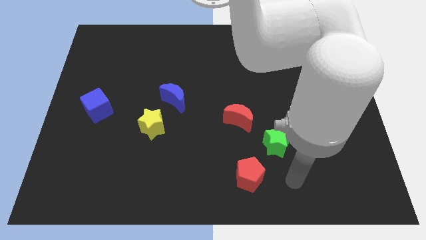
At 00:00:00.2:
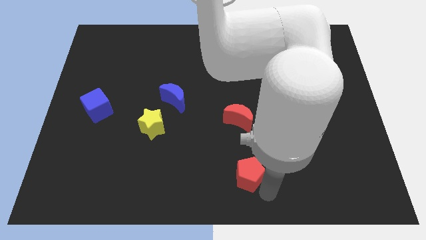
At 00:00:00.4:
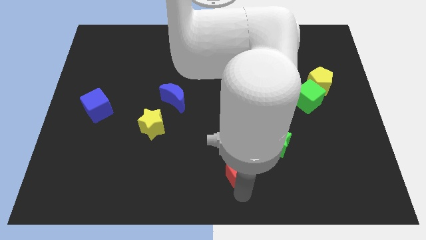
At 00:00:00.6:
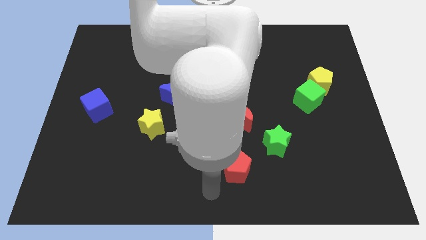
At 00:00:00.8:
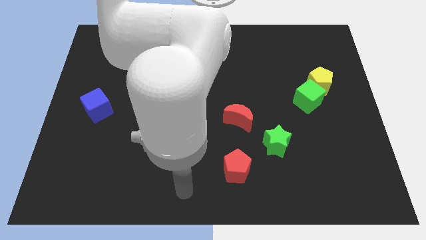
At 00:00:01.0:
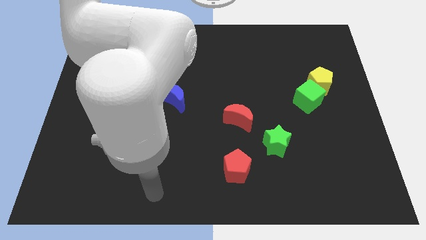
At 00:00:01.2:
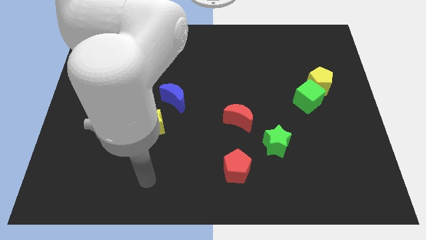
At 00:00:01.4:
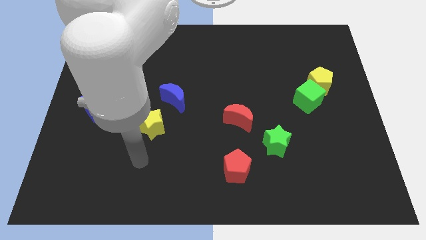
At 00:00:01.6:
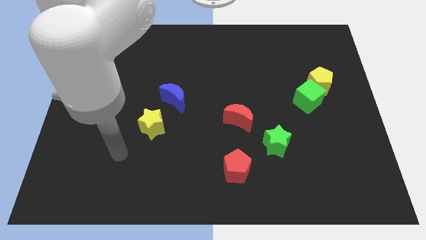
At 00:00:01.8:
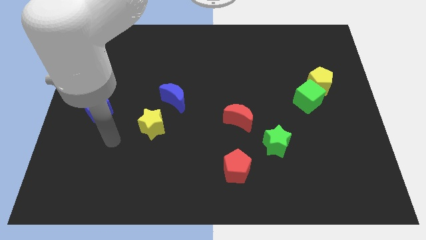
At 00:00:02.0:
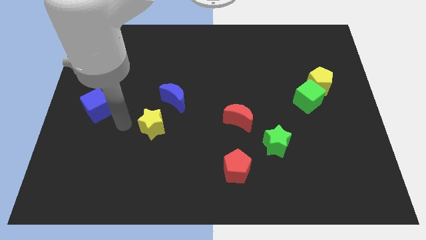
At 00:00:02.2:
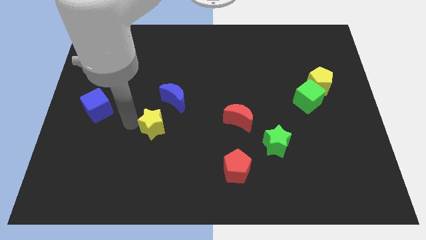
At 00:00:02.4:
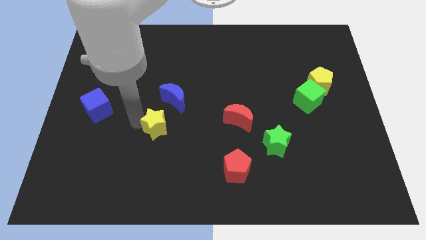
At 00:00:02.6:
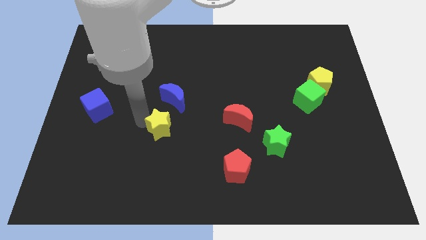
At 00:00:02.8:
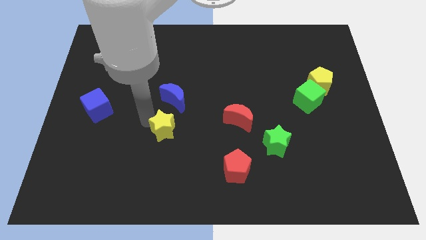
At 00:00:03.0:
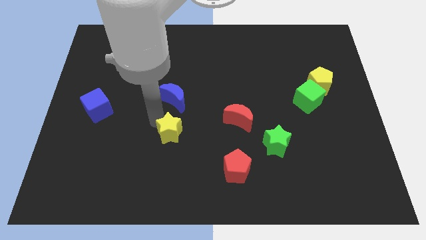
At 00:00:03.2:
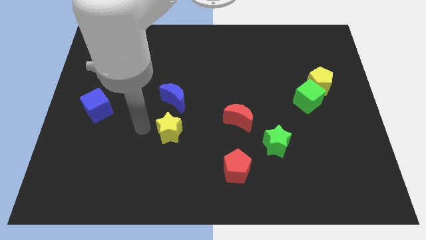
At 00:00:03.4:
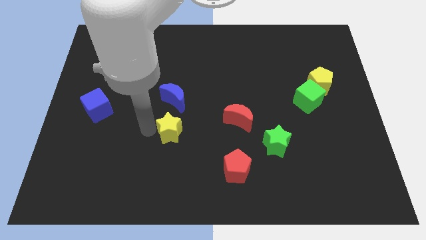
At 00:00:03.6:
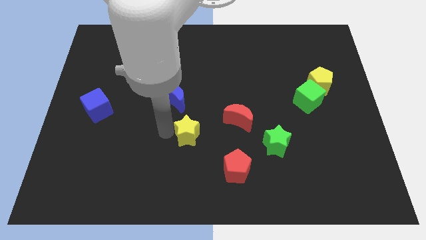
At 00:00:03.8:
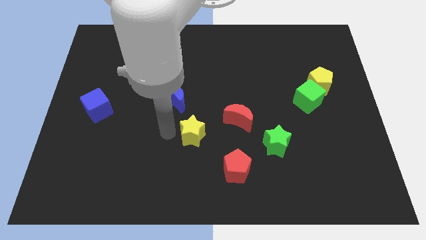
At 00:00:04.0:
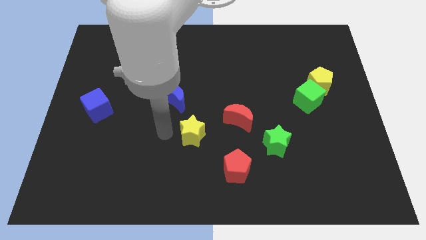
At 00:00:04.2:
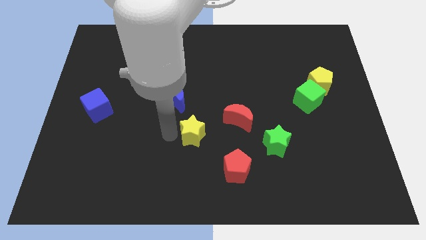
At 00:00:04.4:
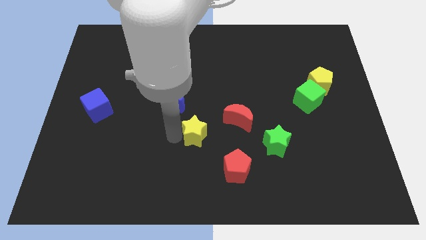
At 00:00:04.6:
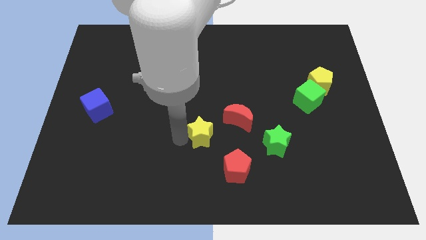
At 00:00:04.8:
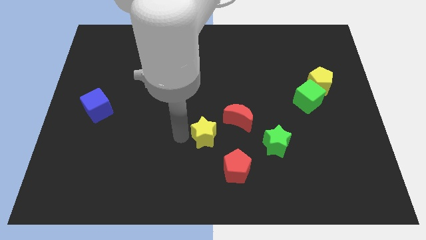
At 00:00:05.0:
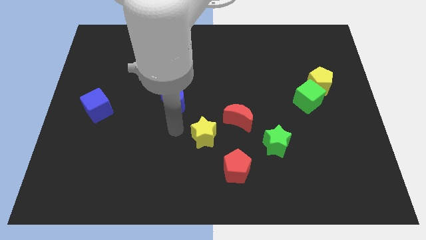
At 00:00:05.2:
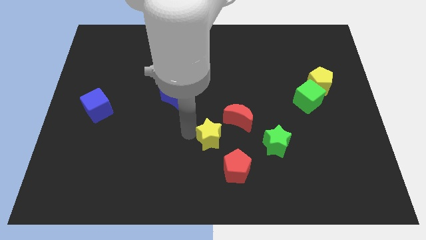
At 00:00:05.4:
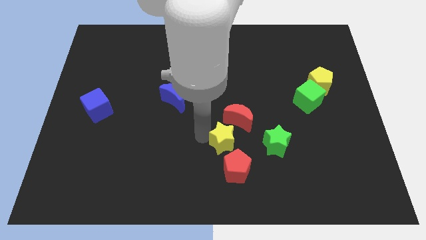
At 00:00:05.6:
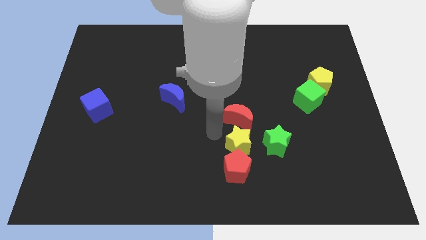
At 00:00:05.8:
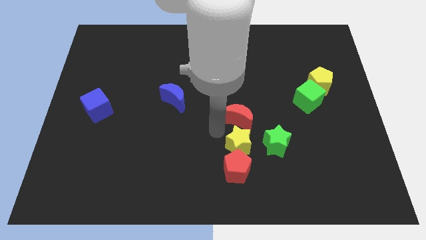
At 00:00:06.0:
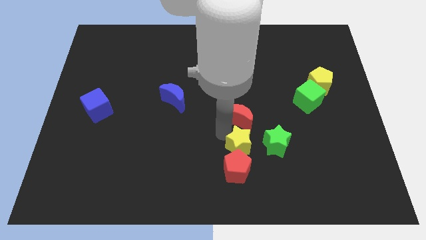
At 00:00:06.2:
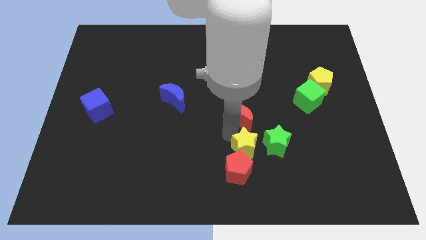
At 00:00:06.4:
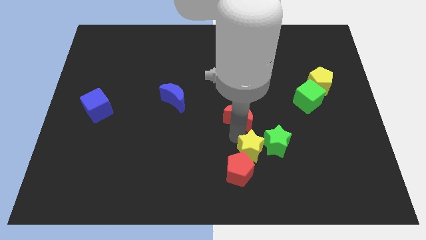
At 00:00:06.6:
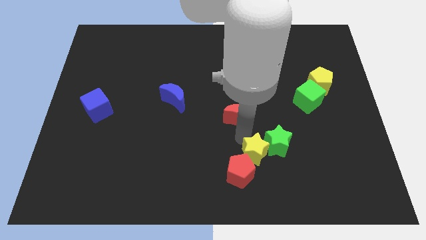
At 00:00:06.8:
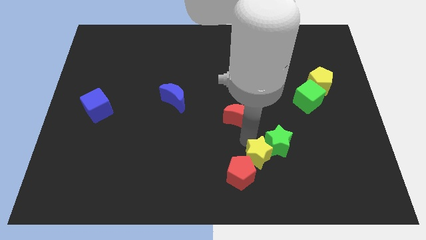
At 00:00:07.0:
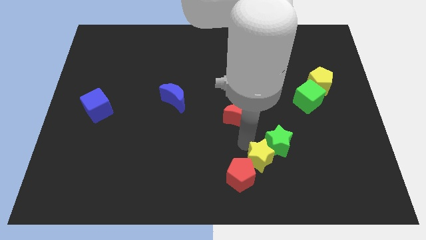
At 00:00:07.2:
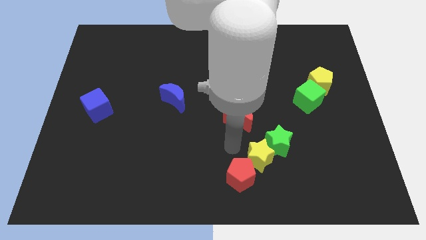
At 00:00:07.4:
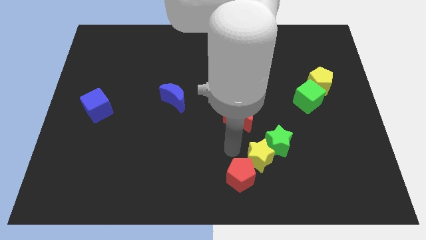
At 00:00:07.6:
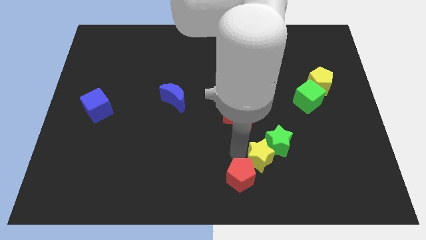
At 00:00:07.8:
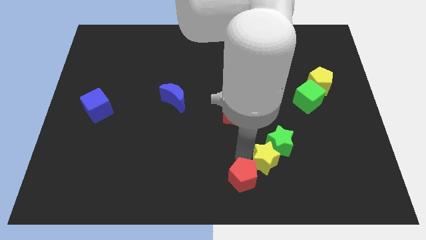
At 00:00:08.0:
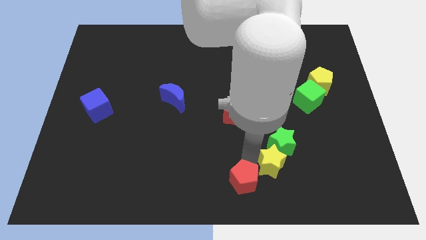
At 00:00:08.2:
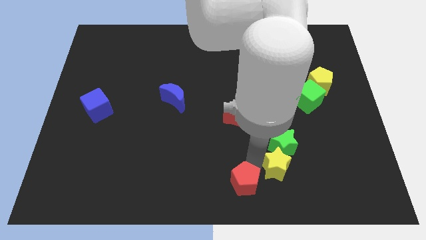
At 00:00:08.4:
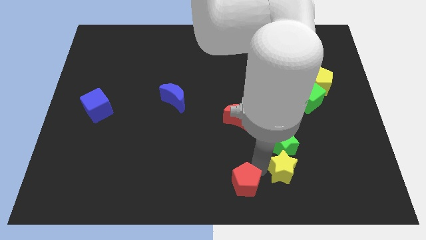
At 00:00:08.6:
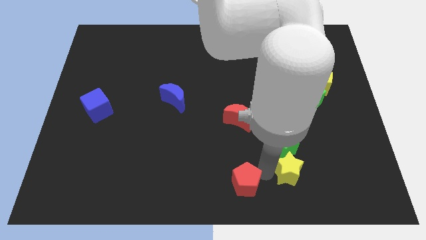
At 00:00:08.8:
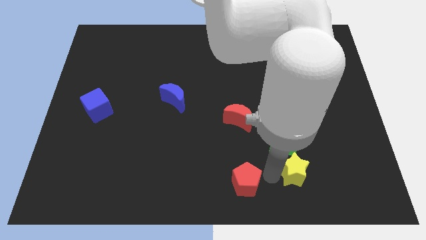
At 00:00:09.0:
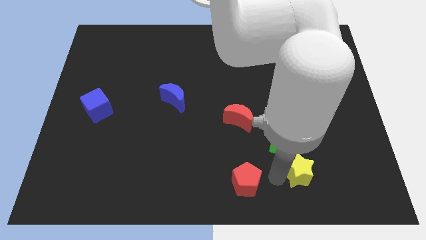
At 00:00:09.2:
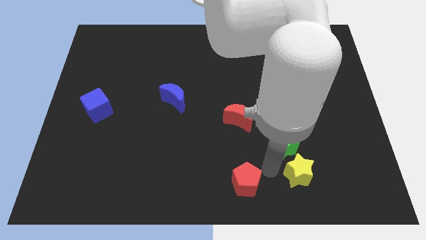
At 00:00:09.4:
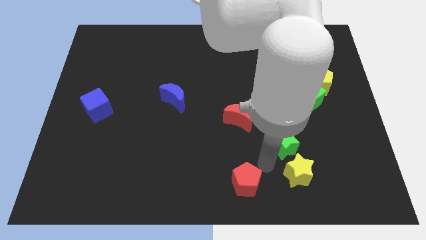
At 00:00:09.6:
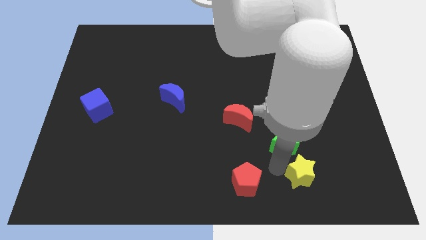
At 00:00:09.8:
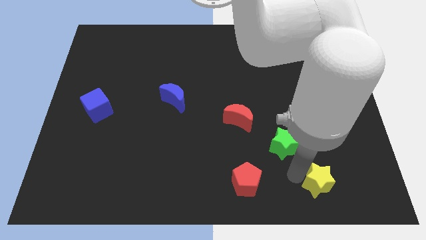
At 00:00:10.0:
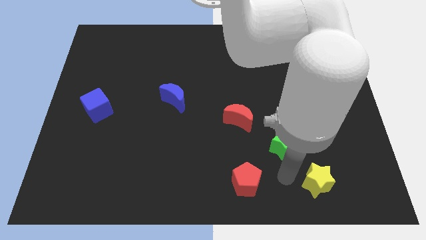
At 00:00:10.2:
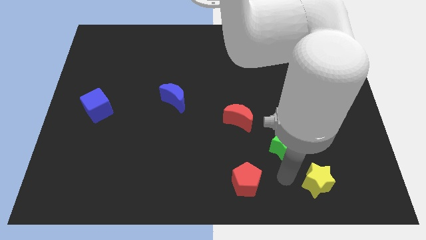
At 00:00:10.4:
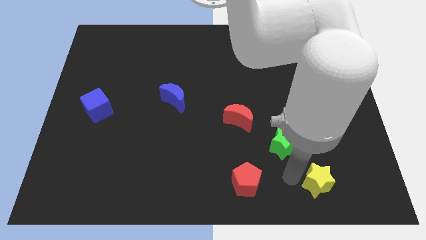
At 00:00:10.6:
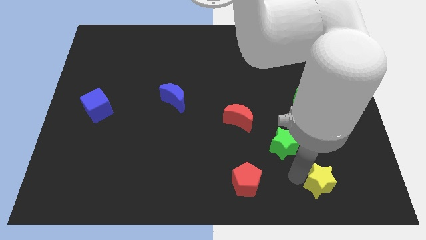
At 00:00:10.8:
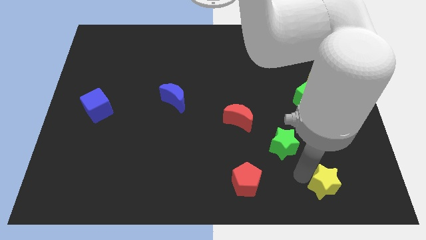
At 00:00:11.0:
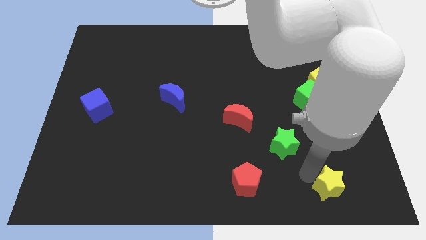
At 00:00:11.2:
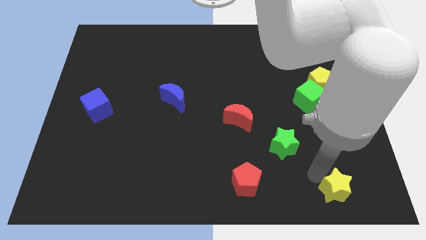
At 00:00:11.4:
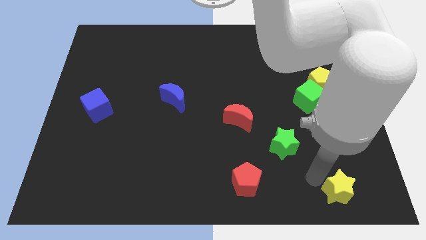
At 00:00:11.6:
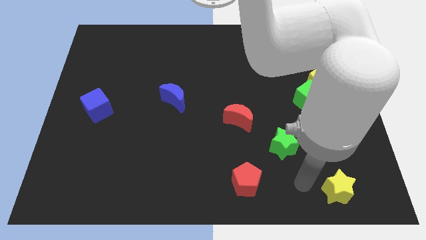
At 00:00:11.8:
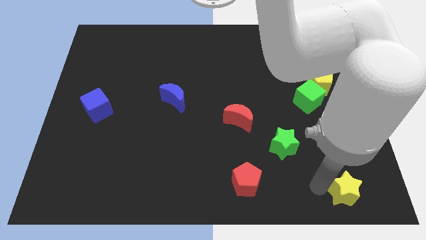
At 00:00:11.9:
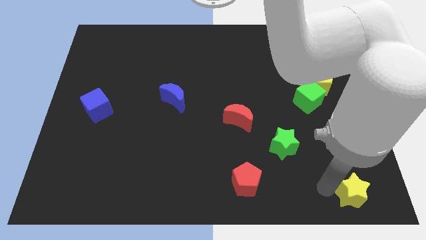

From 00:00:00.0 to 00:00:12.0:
push the yellow star to the lower right corner
